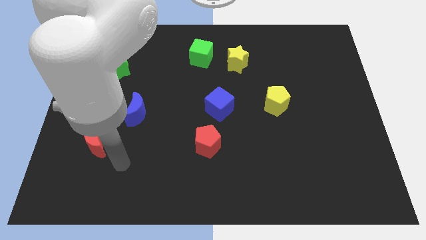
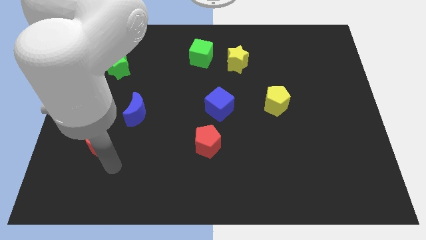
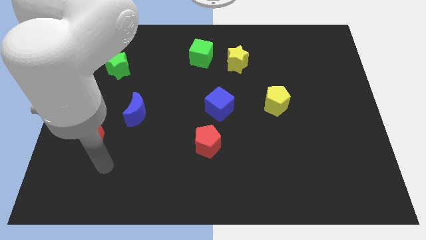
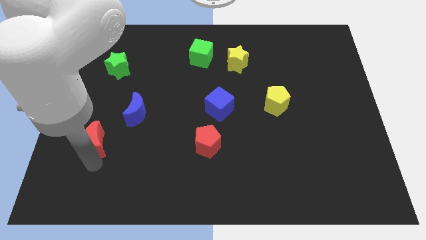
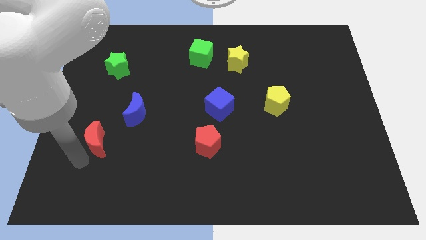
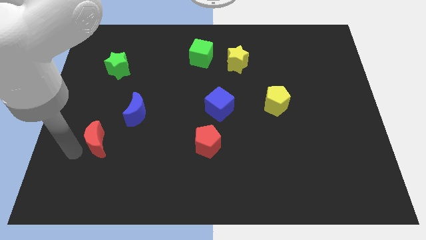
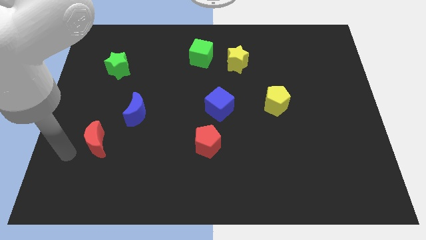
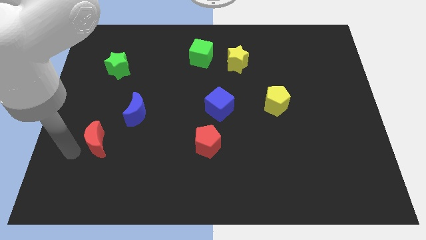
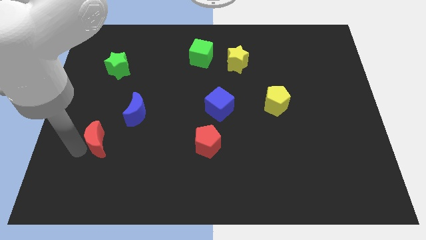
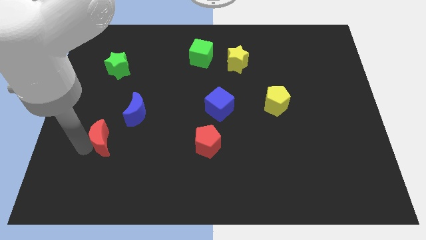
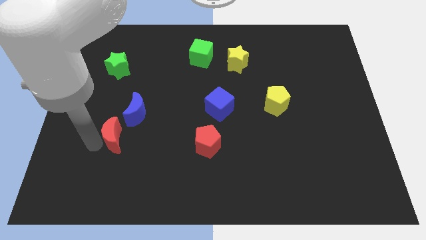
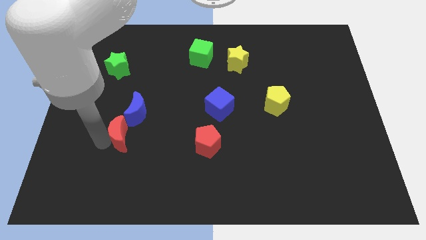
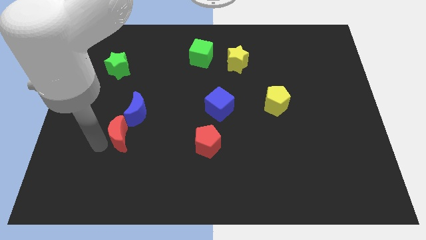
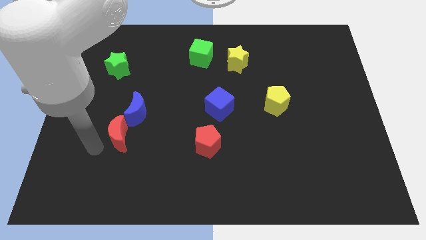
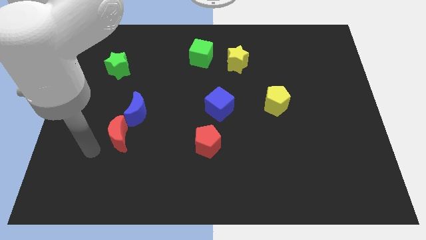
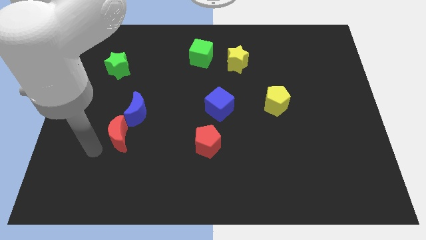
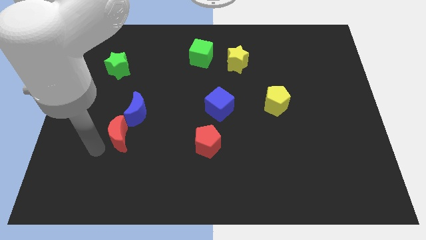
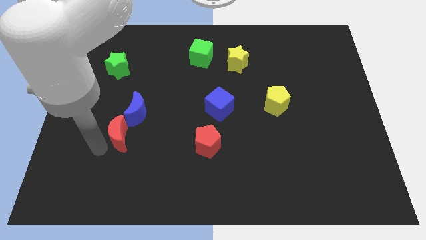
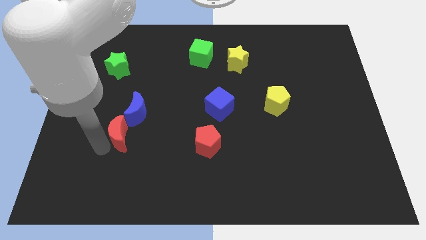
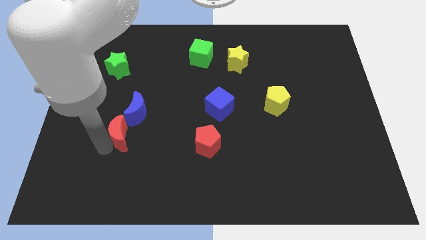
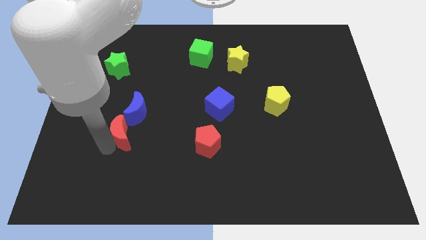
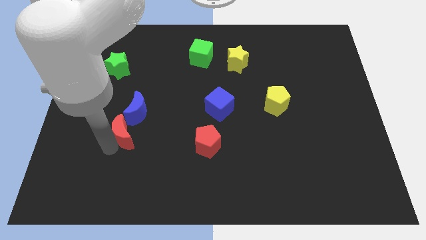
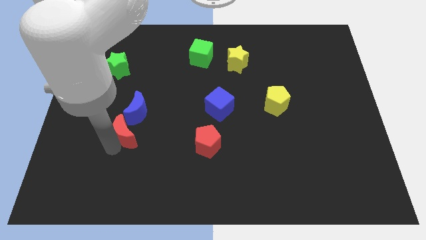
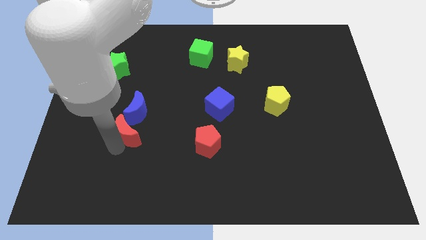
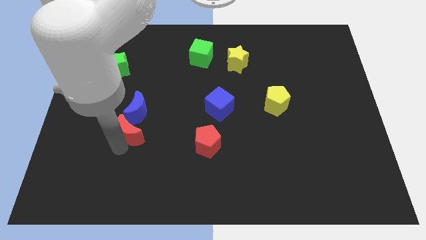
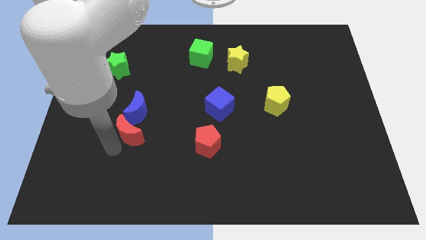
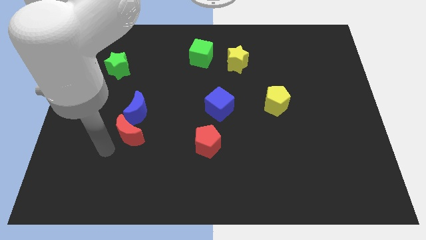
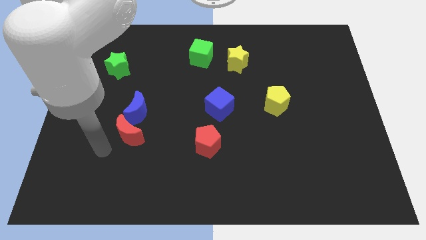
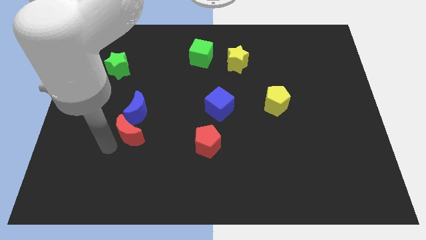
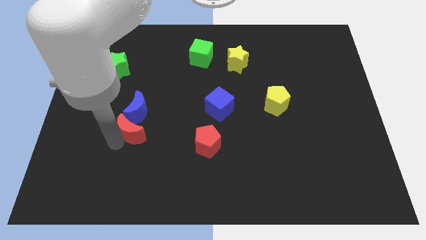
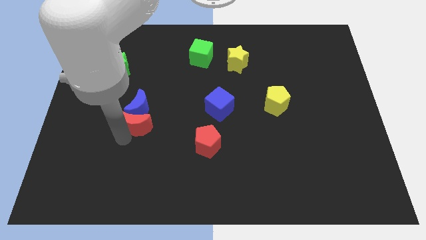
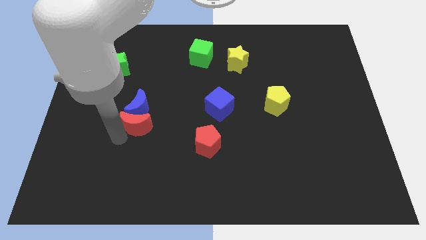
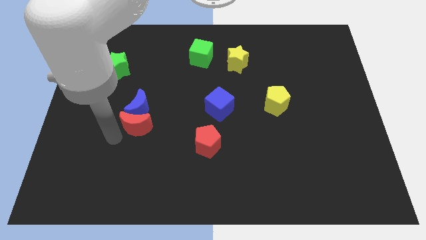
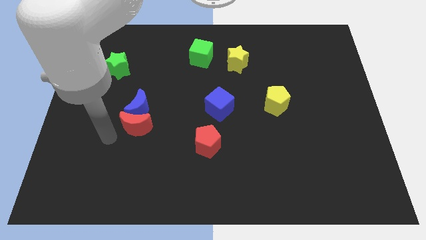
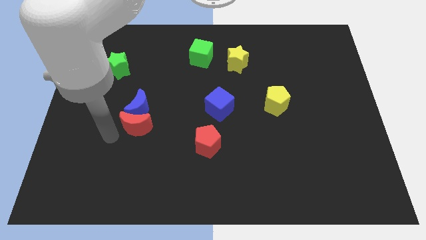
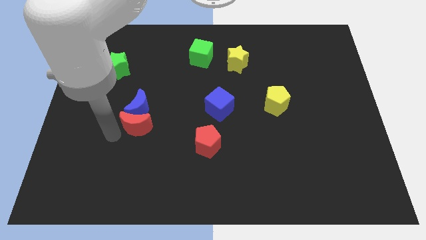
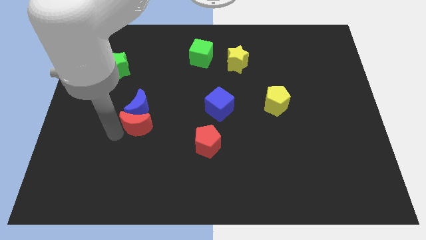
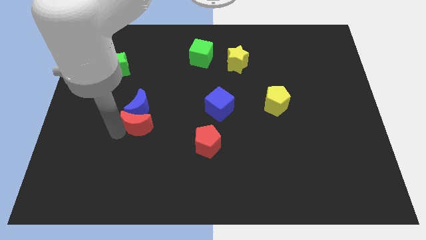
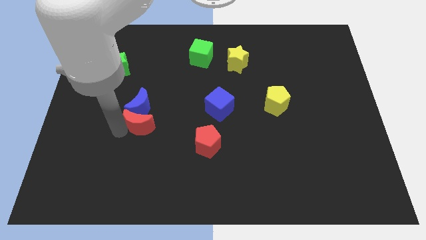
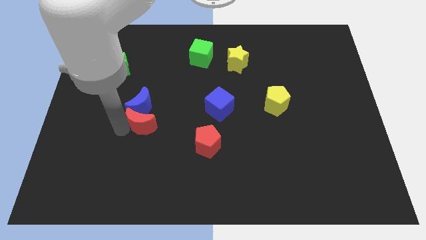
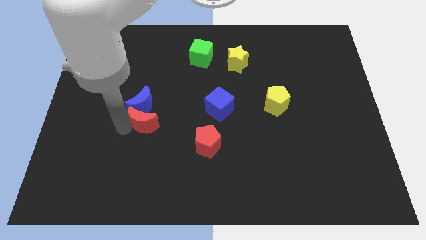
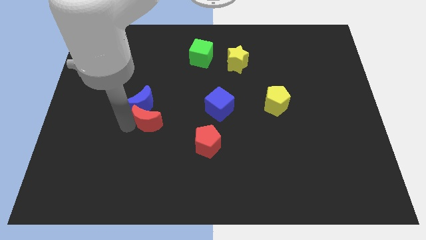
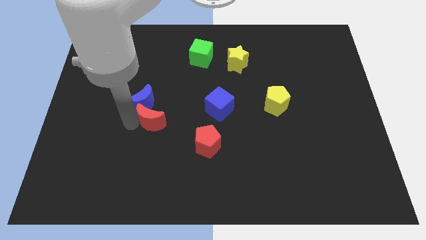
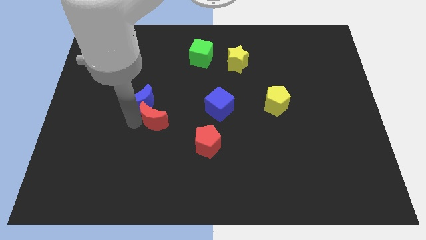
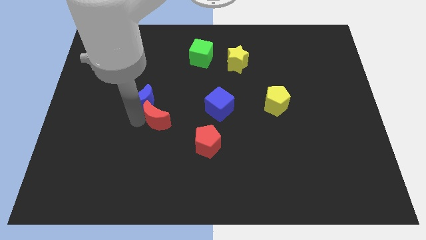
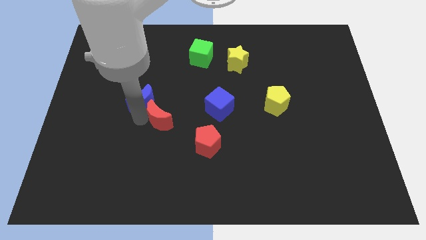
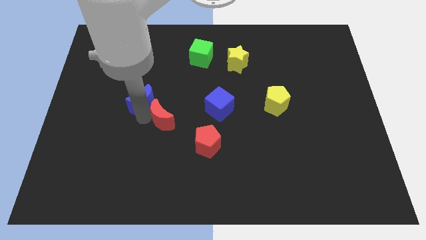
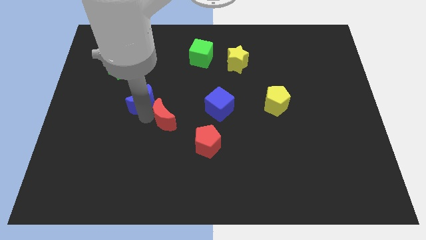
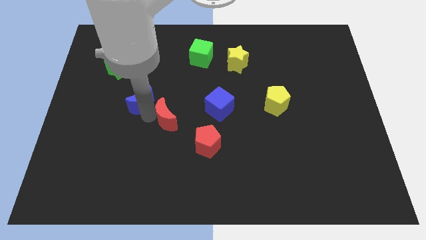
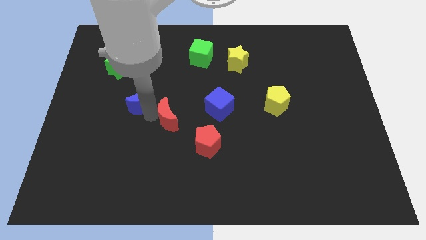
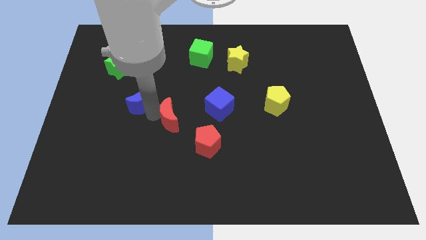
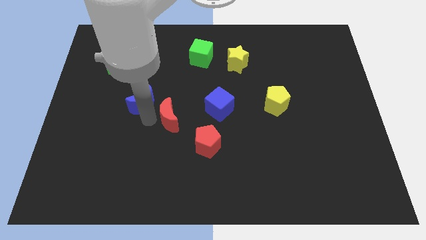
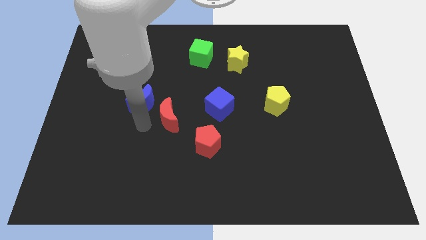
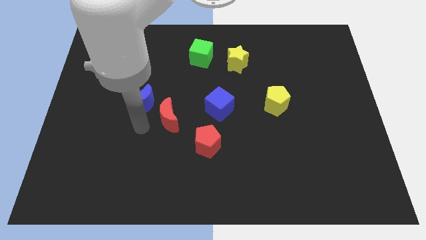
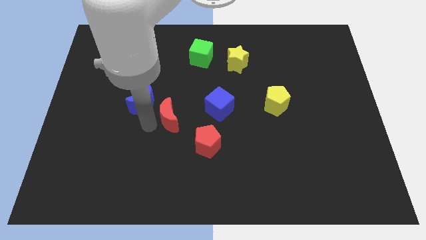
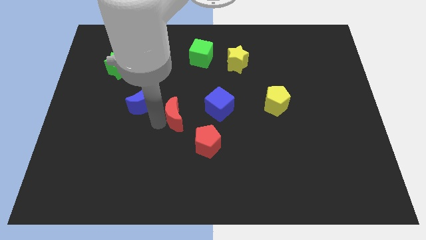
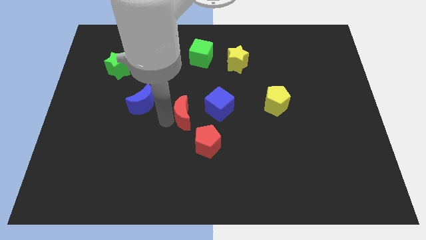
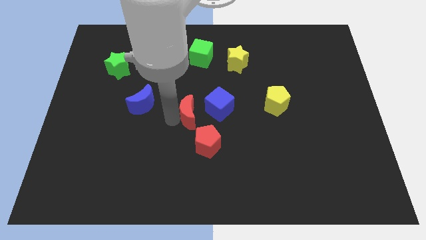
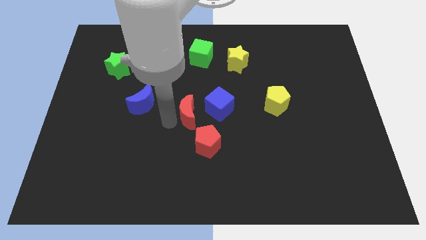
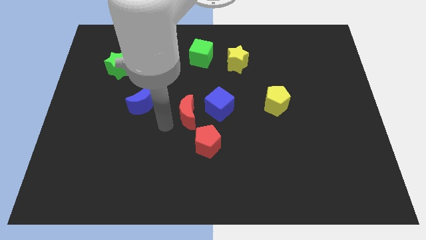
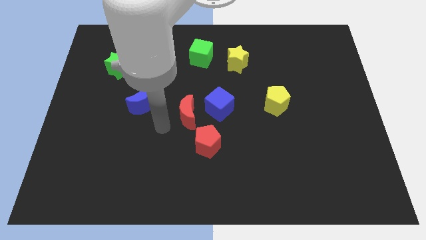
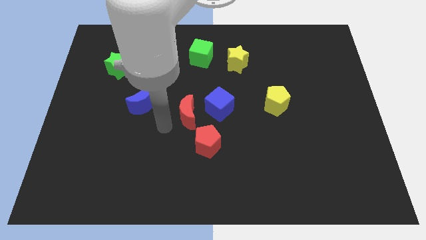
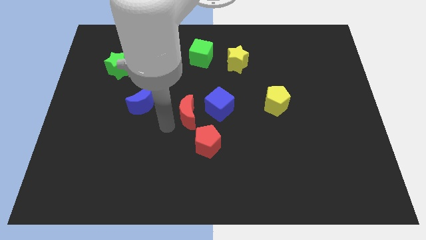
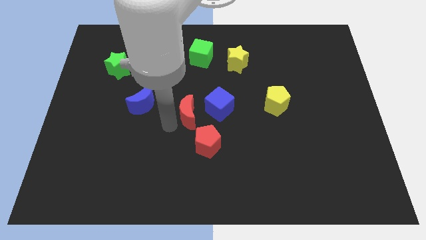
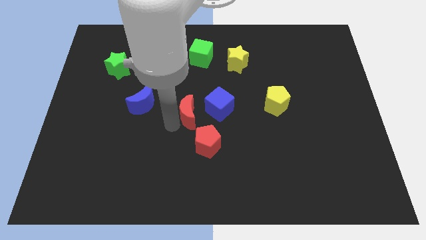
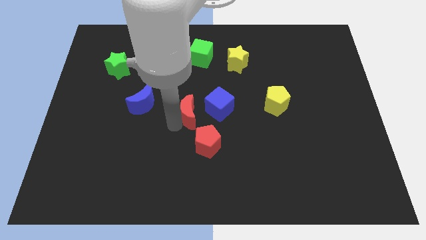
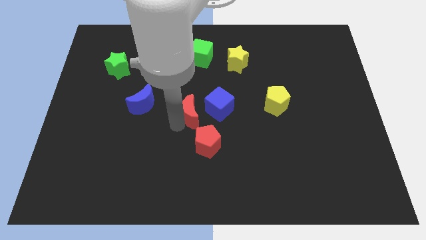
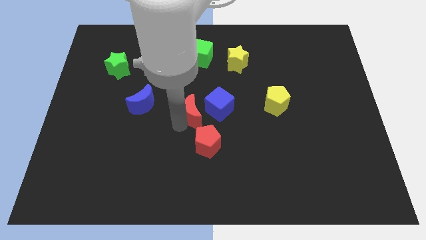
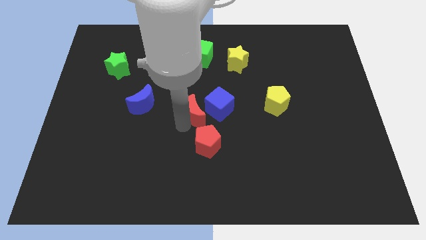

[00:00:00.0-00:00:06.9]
move the red moon to the blue cube

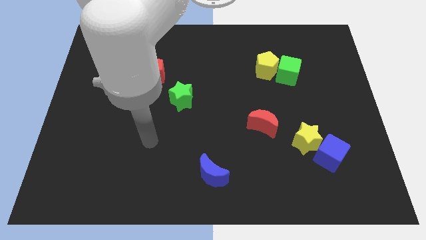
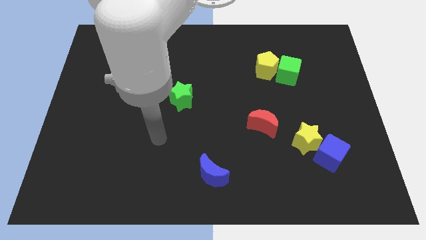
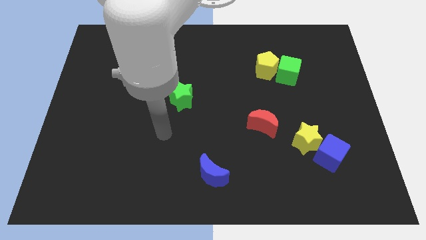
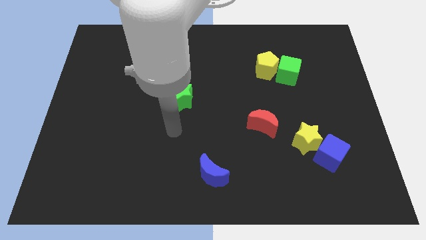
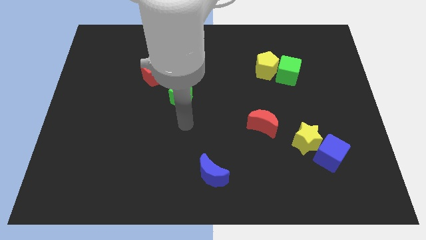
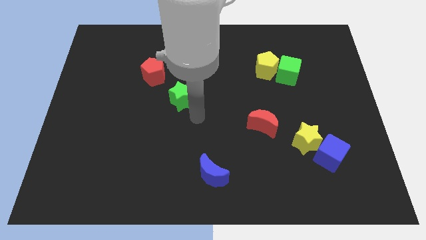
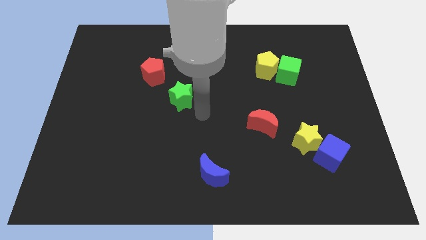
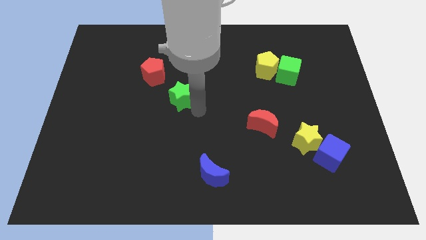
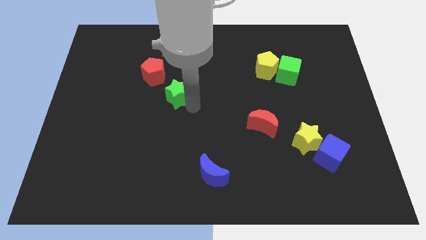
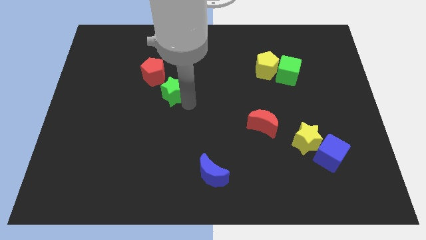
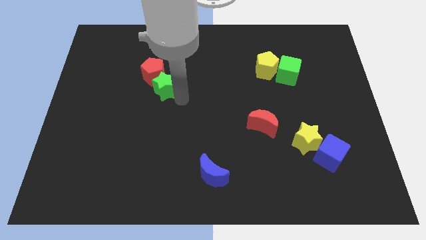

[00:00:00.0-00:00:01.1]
slide the green star close to the red pentagon
